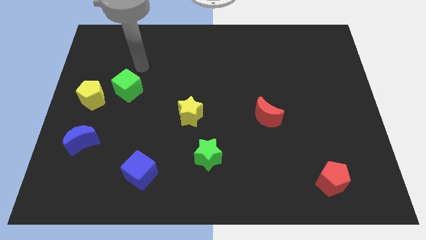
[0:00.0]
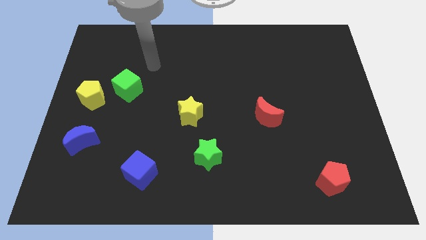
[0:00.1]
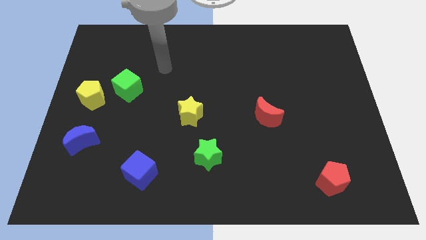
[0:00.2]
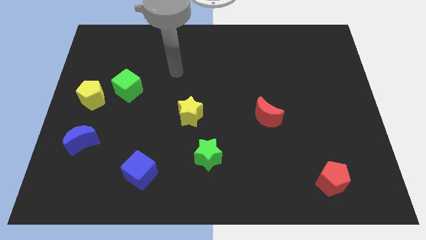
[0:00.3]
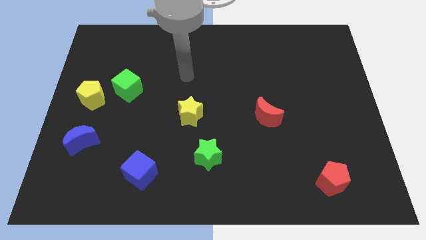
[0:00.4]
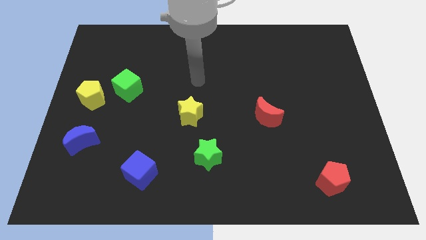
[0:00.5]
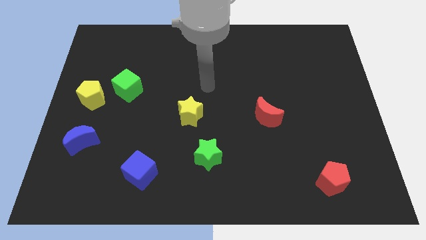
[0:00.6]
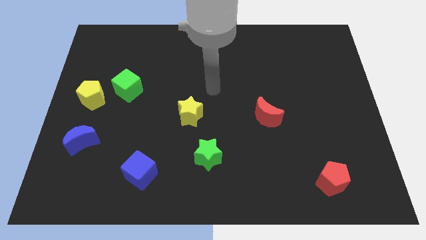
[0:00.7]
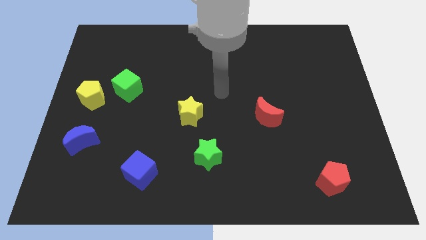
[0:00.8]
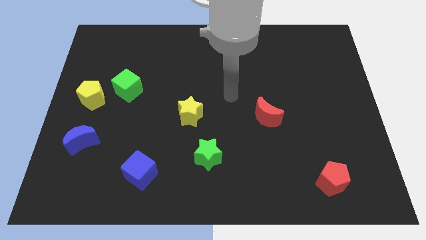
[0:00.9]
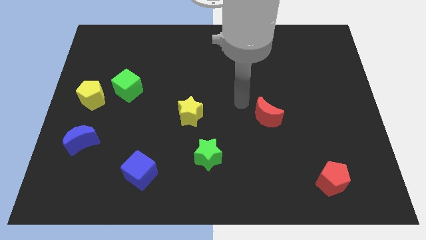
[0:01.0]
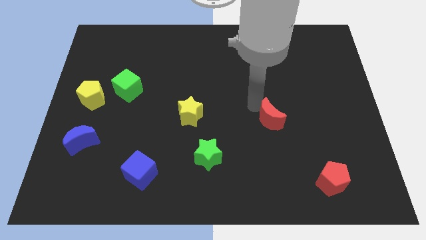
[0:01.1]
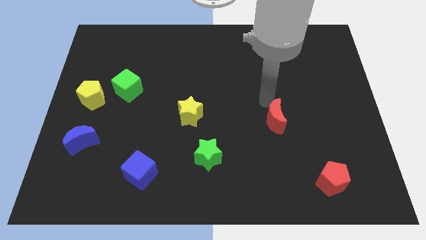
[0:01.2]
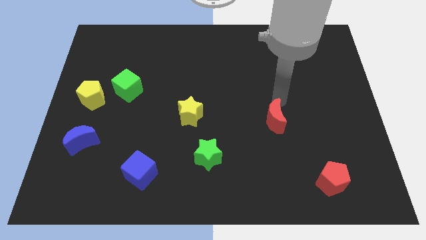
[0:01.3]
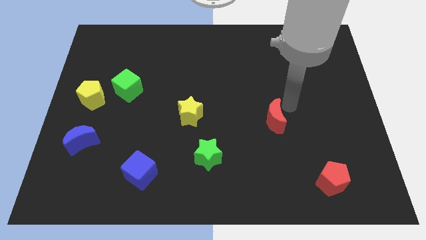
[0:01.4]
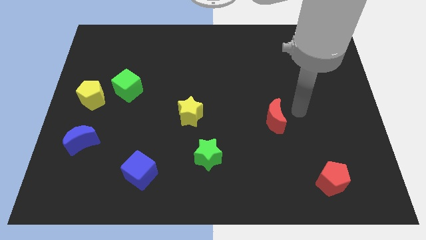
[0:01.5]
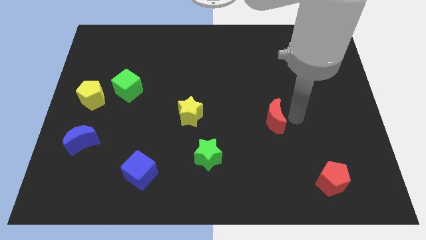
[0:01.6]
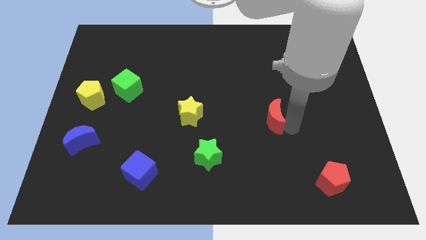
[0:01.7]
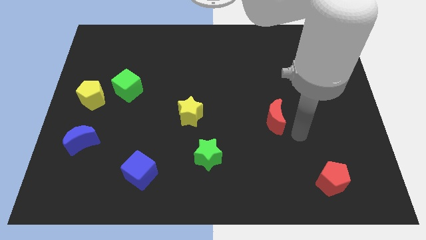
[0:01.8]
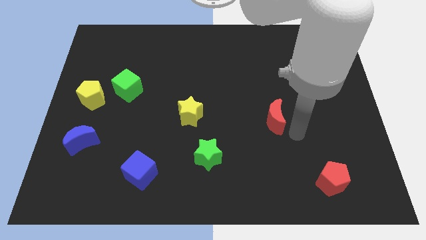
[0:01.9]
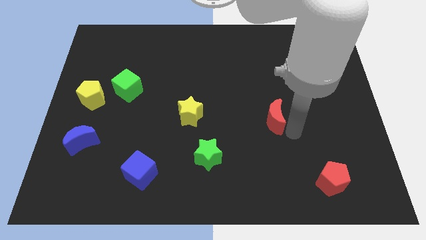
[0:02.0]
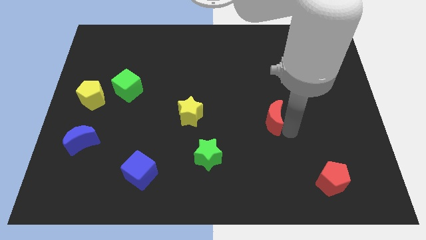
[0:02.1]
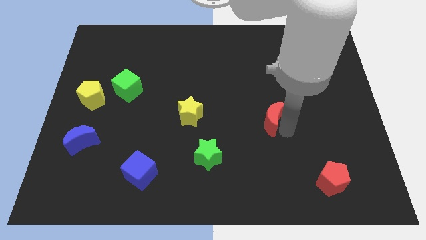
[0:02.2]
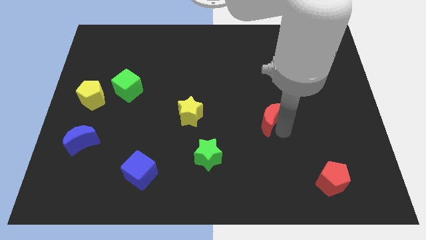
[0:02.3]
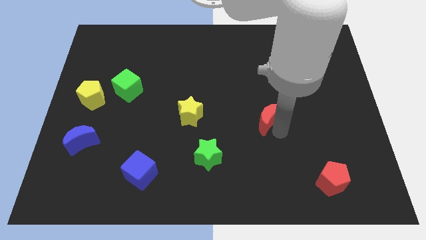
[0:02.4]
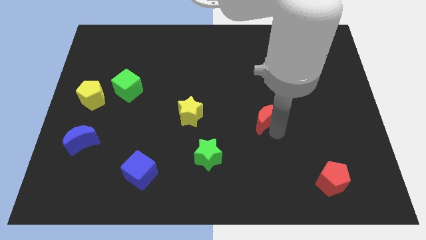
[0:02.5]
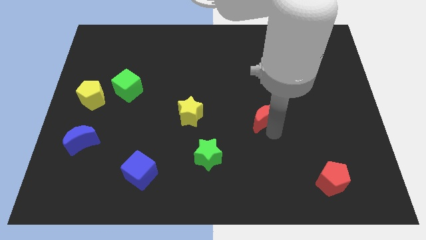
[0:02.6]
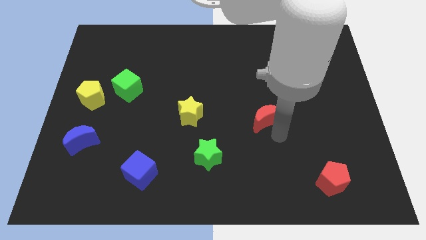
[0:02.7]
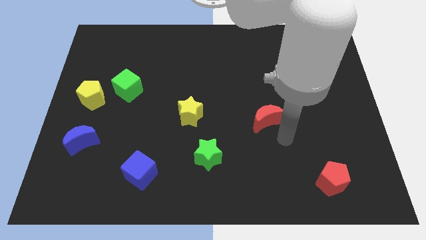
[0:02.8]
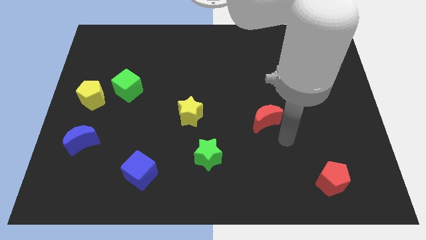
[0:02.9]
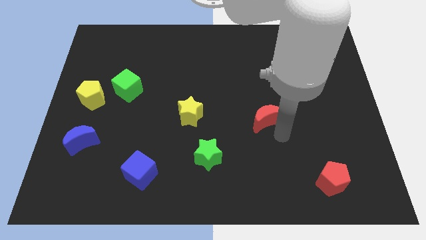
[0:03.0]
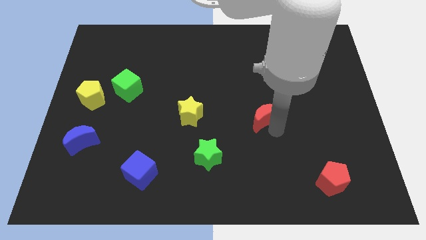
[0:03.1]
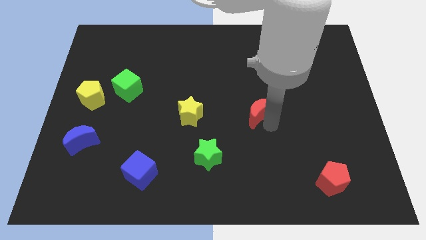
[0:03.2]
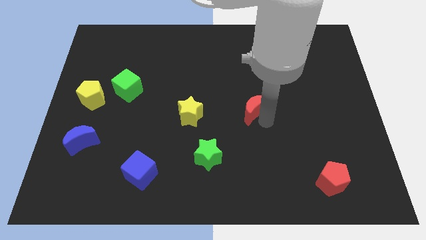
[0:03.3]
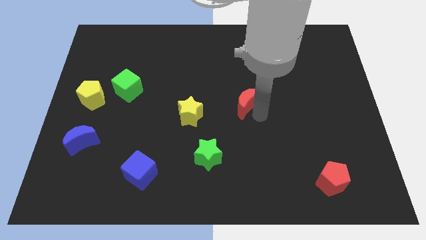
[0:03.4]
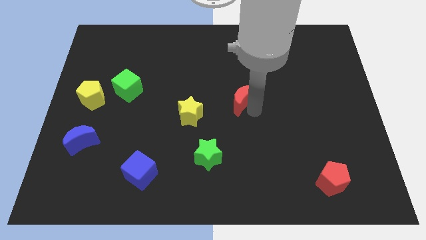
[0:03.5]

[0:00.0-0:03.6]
slide the red moon up and left somewhat

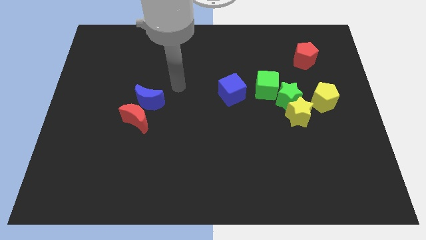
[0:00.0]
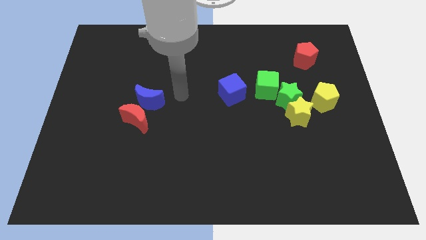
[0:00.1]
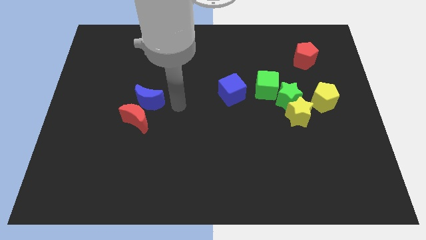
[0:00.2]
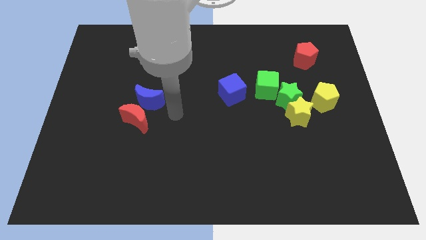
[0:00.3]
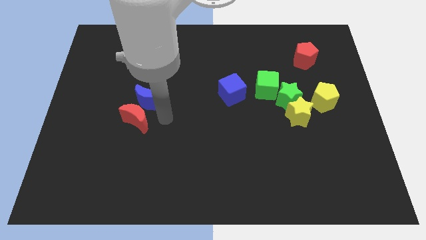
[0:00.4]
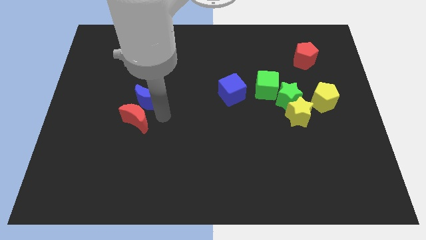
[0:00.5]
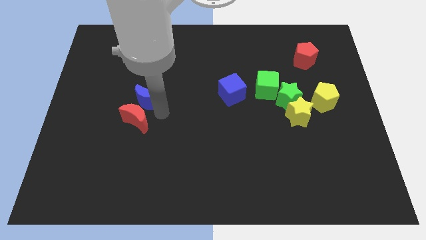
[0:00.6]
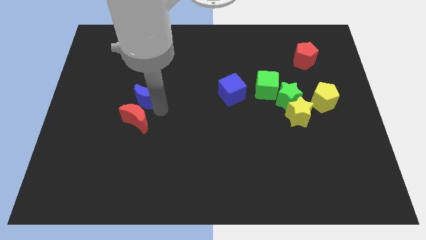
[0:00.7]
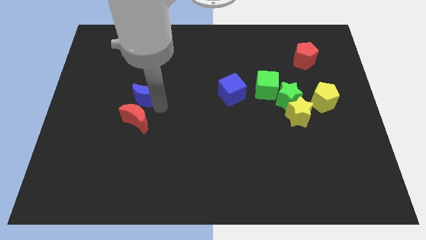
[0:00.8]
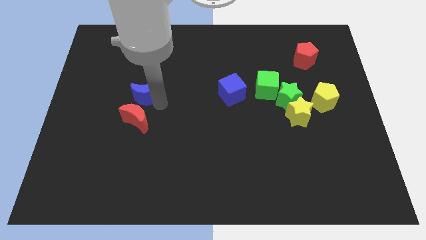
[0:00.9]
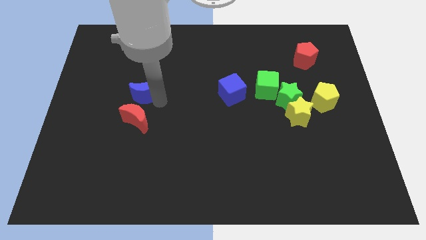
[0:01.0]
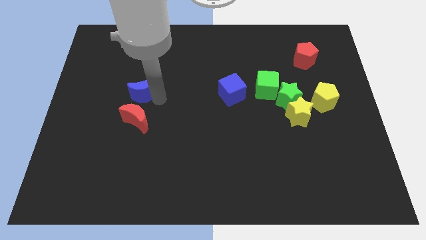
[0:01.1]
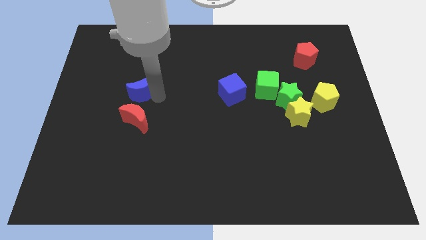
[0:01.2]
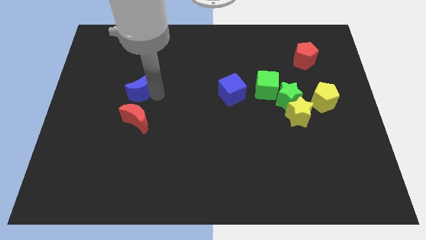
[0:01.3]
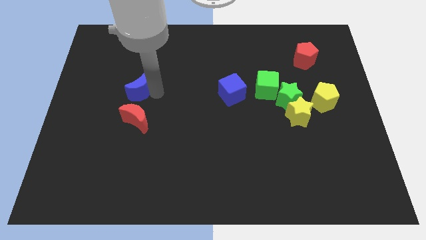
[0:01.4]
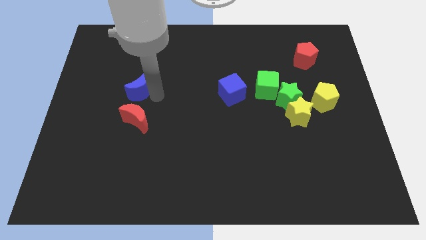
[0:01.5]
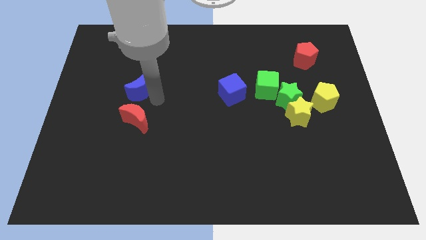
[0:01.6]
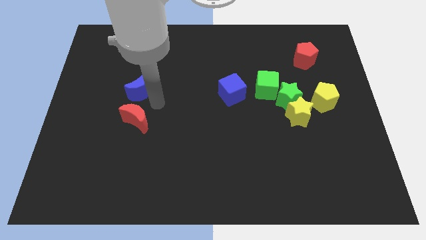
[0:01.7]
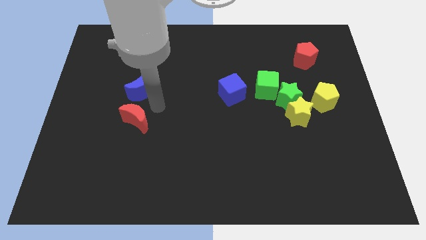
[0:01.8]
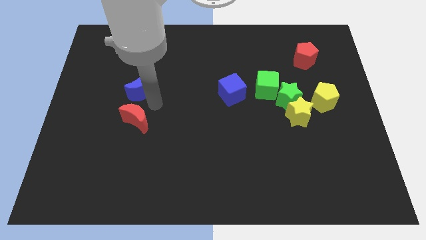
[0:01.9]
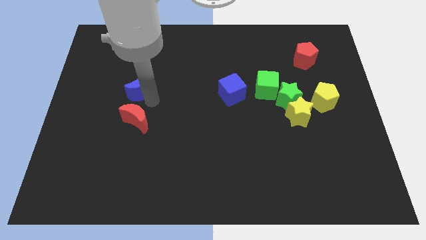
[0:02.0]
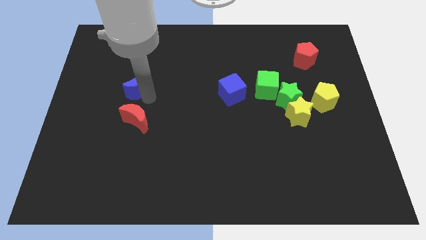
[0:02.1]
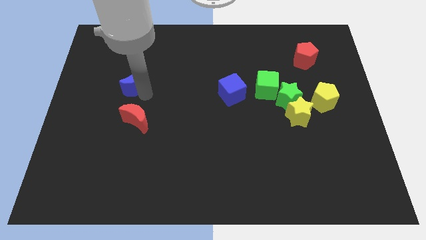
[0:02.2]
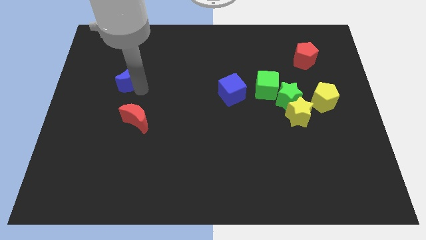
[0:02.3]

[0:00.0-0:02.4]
push the blue moon somewhat diagonally upwards and to the left

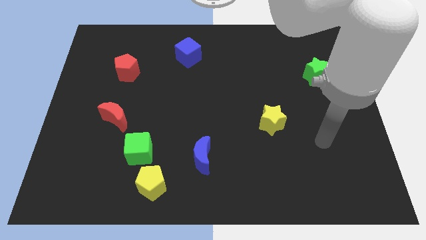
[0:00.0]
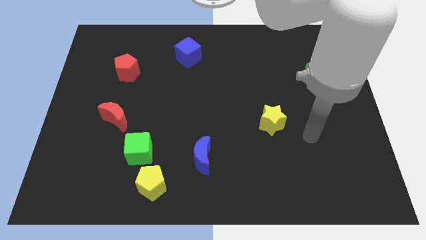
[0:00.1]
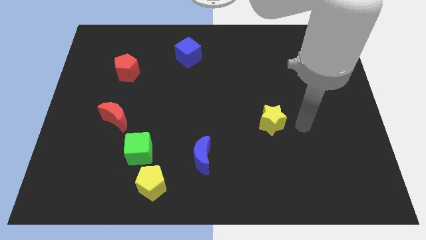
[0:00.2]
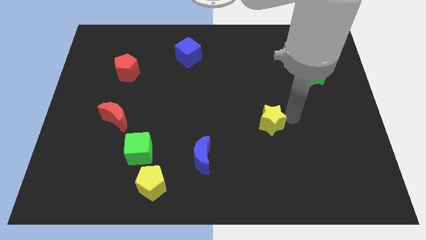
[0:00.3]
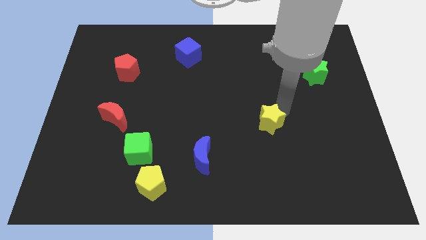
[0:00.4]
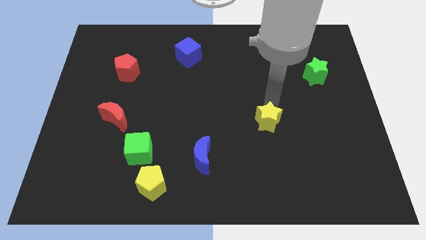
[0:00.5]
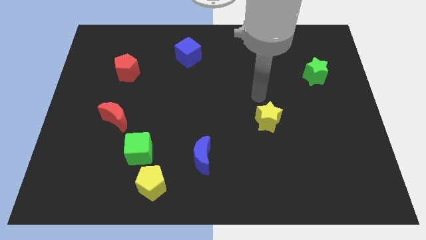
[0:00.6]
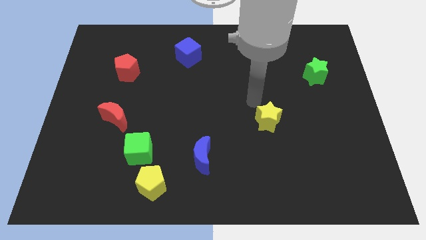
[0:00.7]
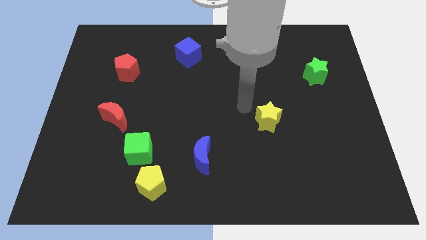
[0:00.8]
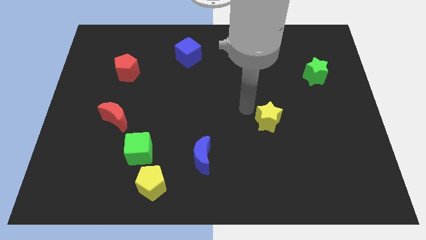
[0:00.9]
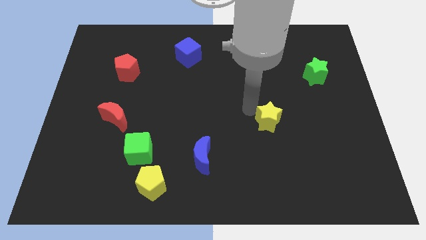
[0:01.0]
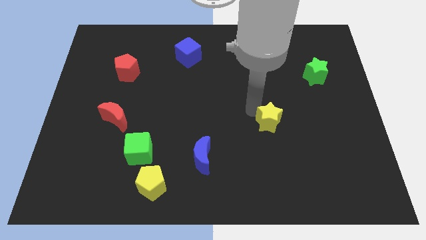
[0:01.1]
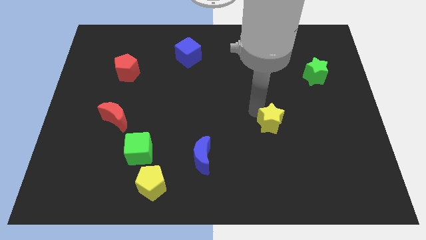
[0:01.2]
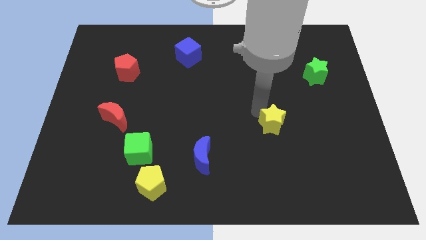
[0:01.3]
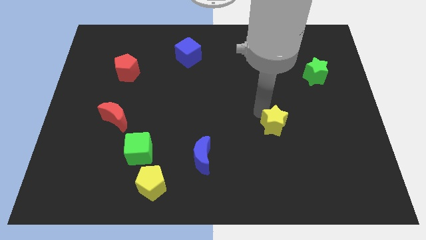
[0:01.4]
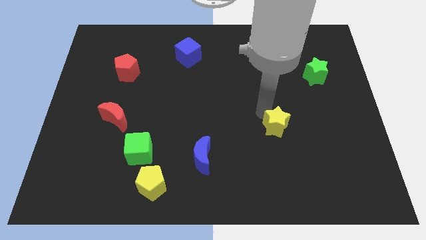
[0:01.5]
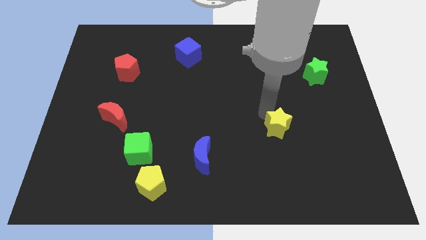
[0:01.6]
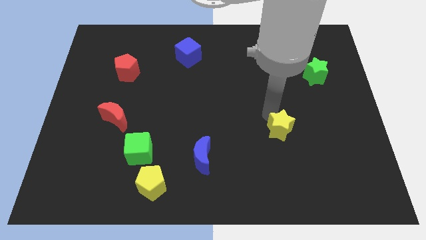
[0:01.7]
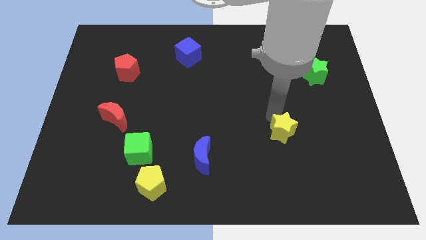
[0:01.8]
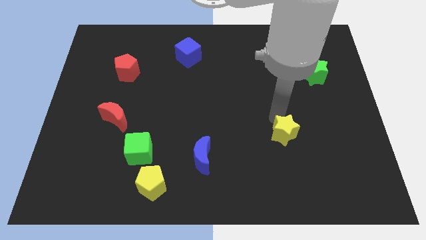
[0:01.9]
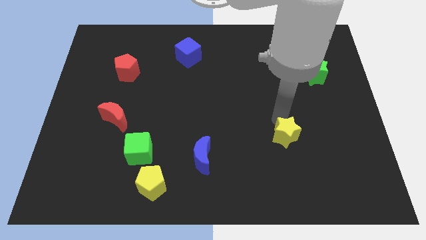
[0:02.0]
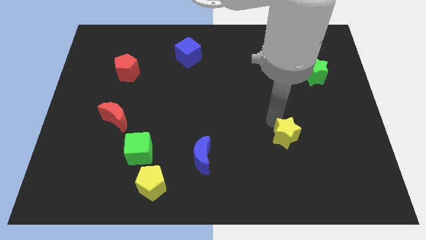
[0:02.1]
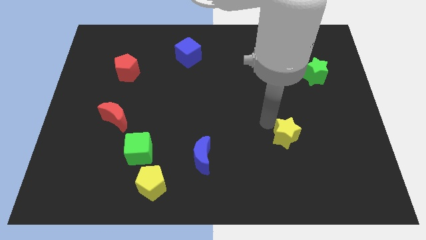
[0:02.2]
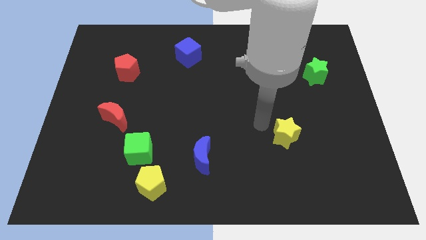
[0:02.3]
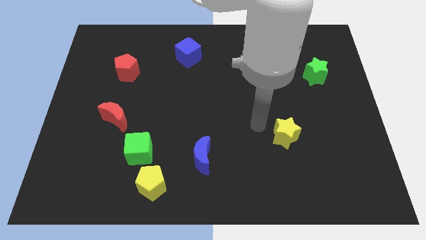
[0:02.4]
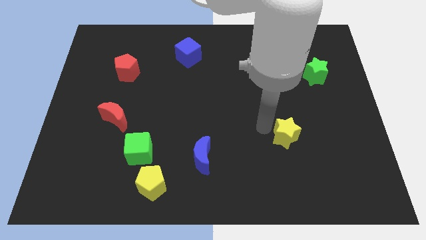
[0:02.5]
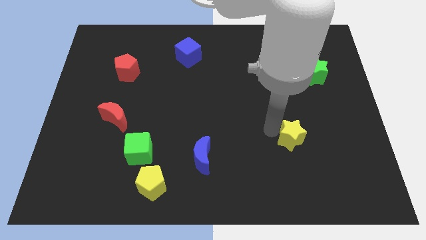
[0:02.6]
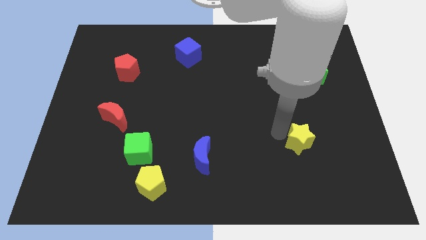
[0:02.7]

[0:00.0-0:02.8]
slide the yellow star a bit diagonally downwards and right
